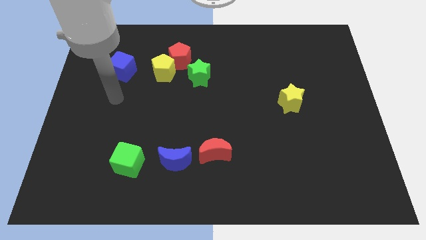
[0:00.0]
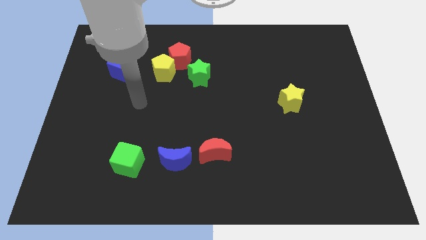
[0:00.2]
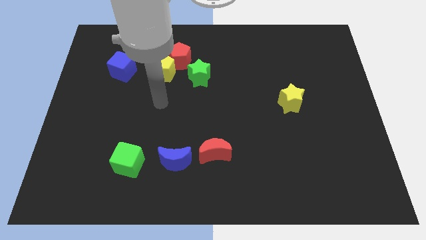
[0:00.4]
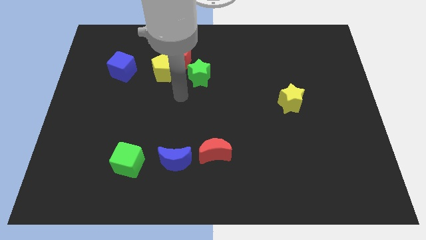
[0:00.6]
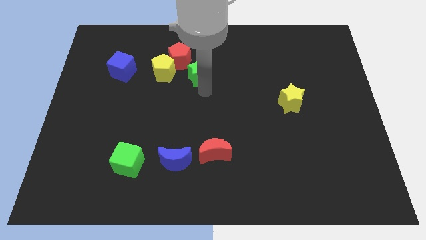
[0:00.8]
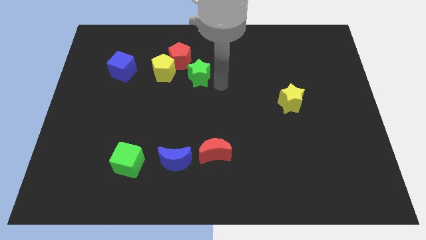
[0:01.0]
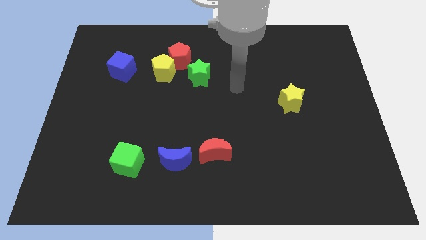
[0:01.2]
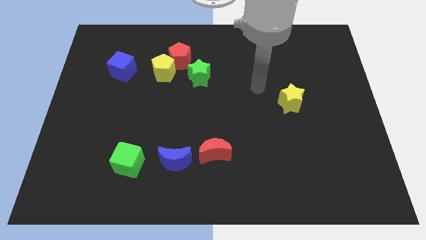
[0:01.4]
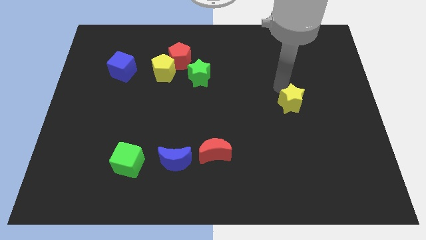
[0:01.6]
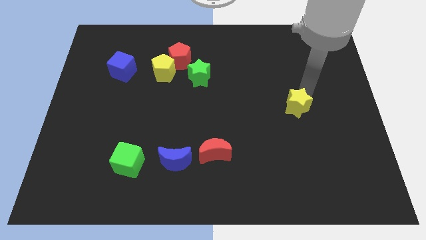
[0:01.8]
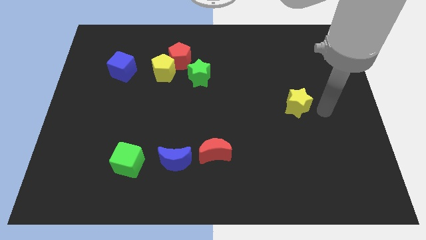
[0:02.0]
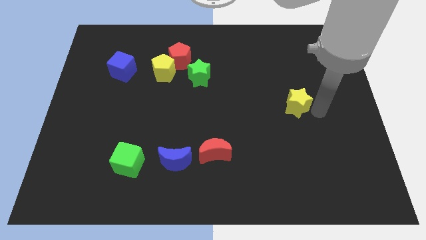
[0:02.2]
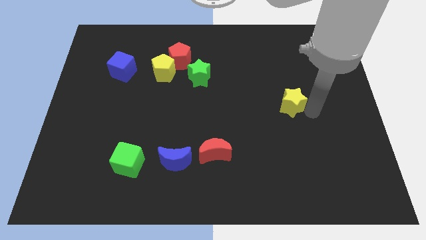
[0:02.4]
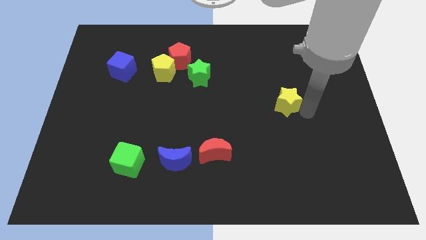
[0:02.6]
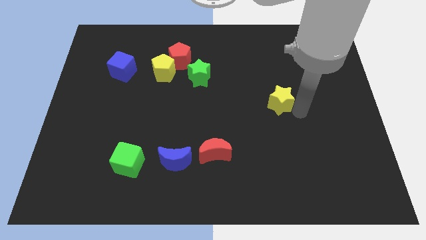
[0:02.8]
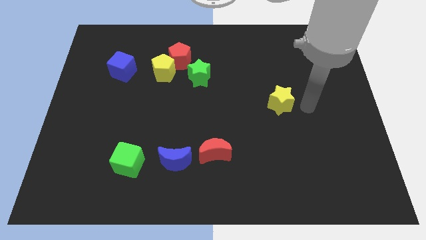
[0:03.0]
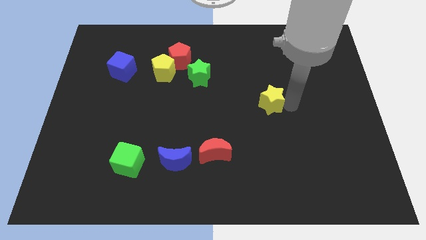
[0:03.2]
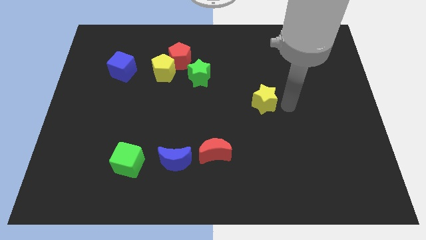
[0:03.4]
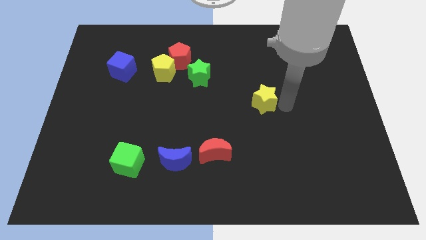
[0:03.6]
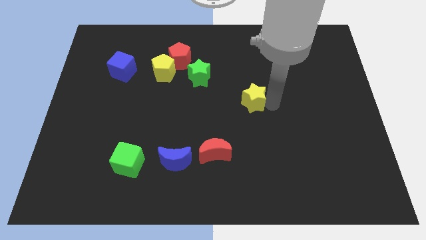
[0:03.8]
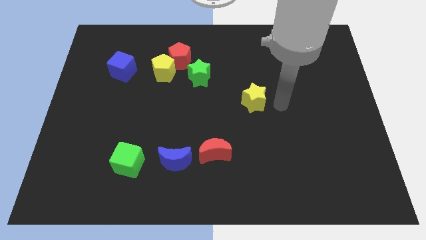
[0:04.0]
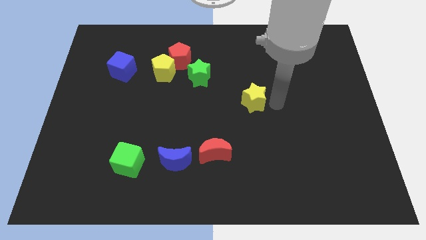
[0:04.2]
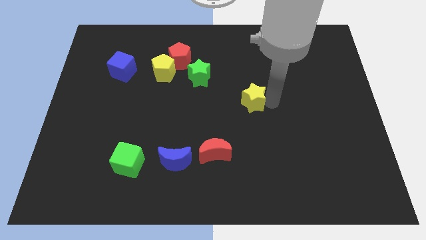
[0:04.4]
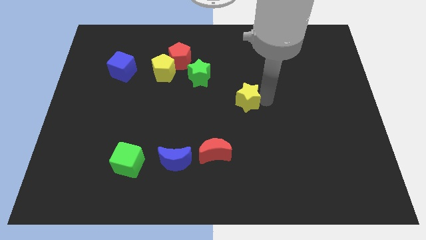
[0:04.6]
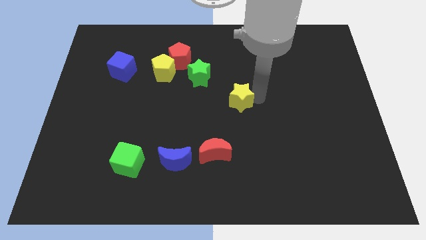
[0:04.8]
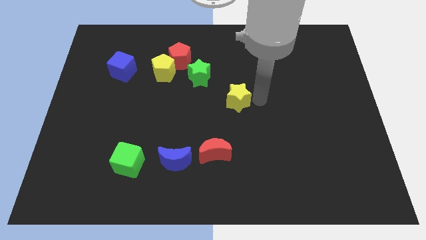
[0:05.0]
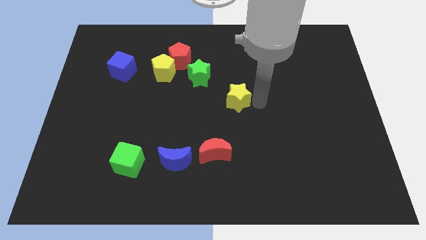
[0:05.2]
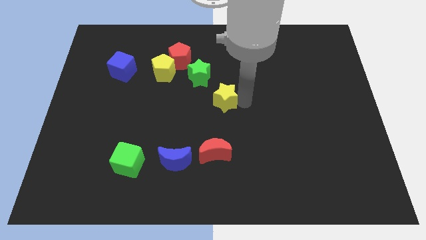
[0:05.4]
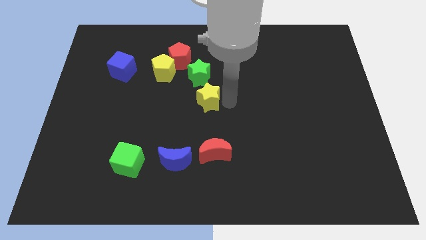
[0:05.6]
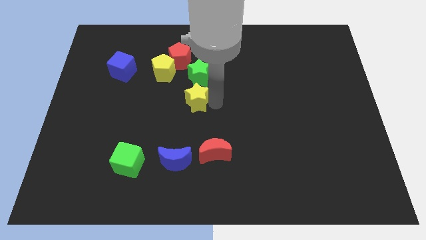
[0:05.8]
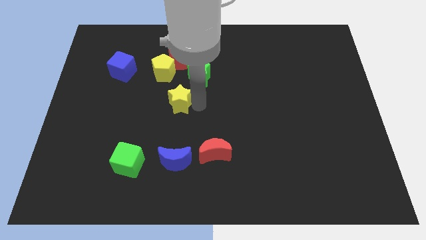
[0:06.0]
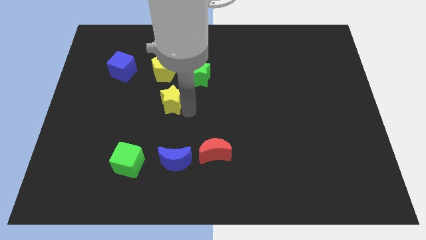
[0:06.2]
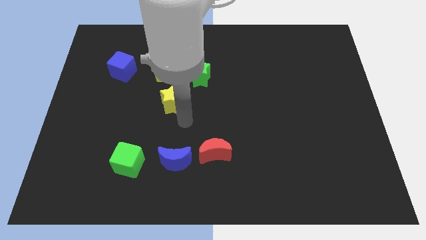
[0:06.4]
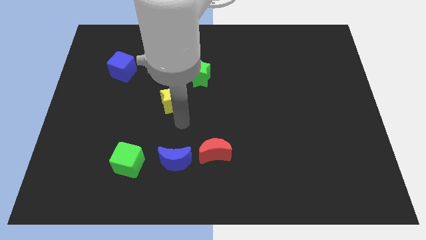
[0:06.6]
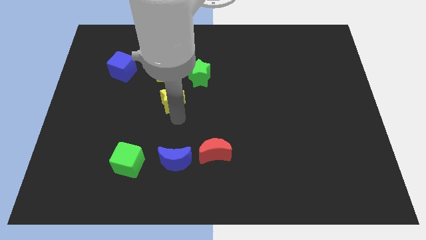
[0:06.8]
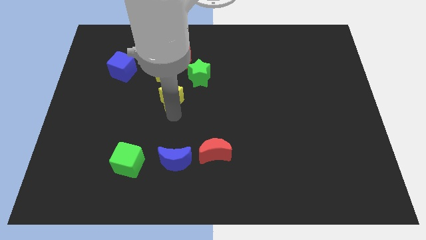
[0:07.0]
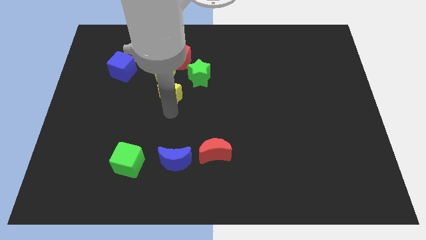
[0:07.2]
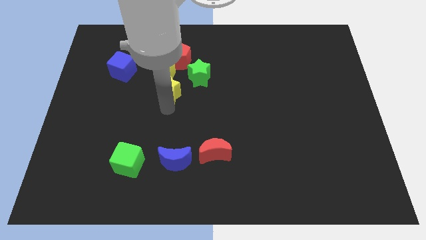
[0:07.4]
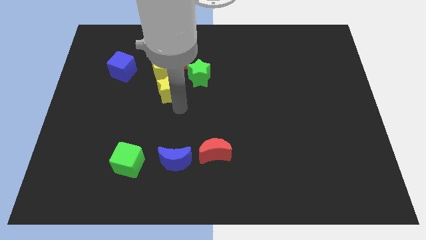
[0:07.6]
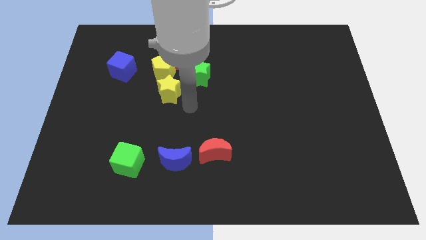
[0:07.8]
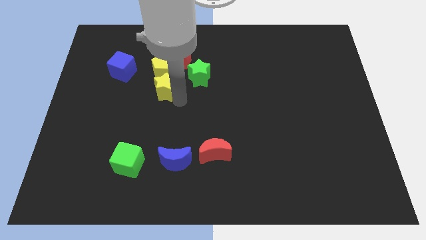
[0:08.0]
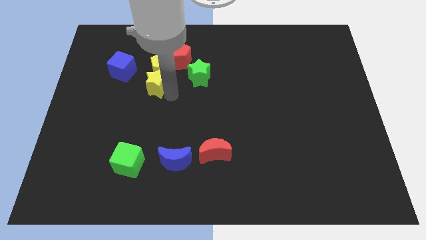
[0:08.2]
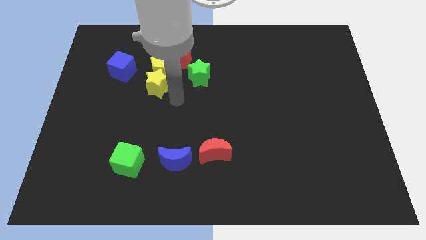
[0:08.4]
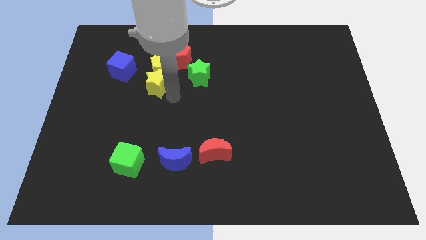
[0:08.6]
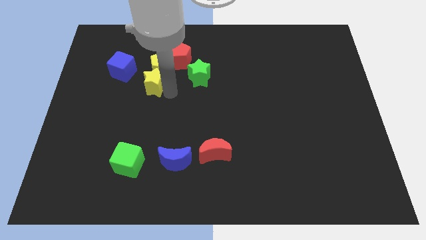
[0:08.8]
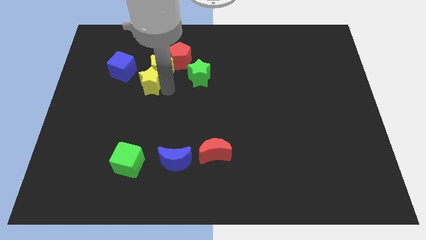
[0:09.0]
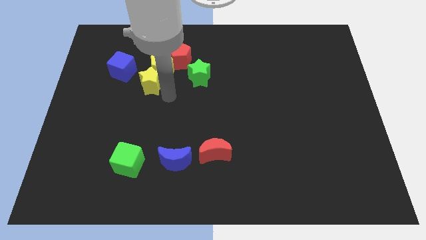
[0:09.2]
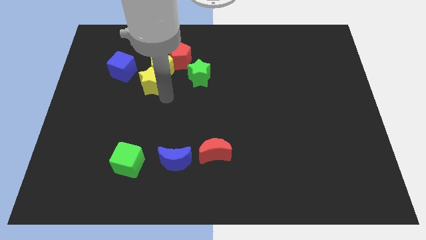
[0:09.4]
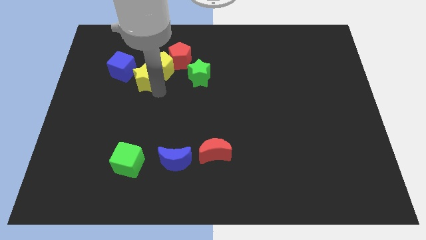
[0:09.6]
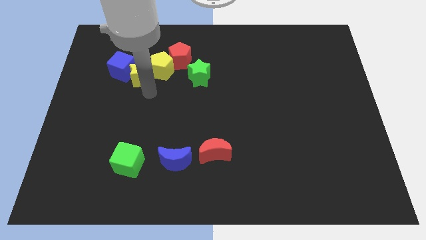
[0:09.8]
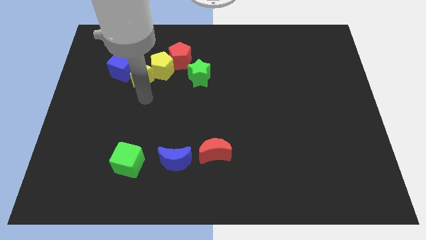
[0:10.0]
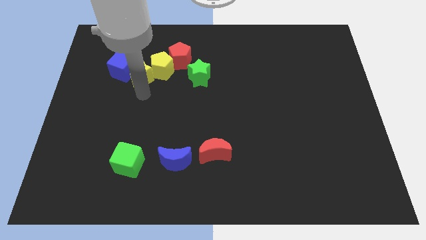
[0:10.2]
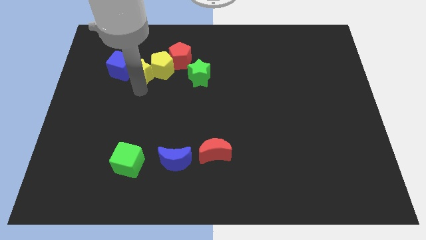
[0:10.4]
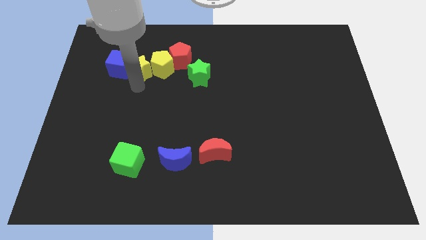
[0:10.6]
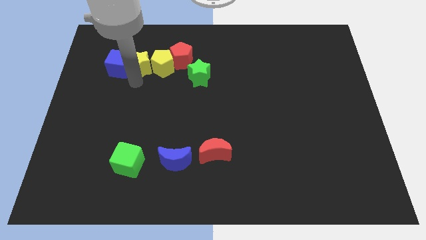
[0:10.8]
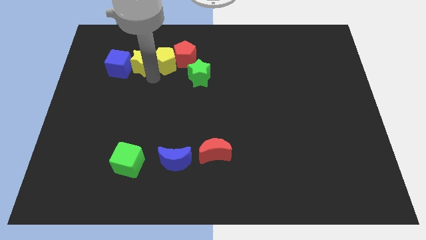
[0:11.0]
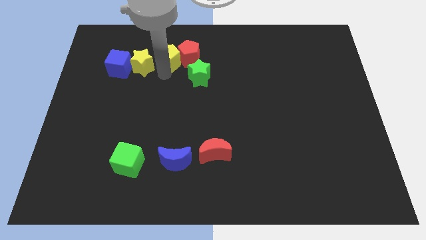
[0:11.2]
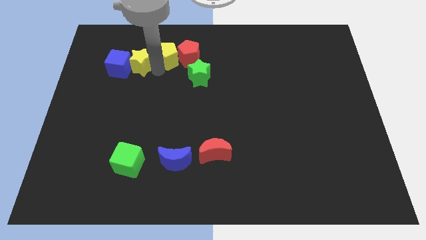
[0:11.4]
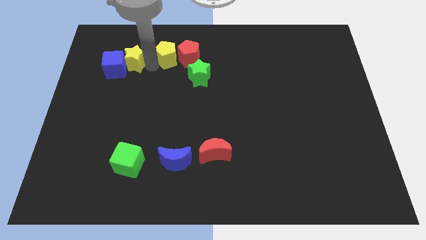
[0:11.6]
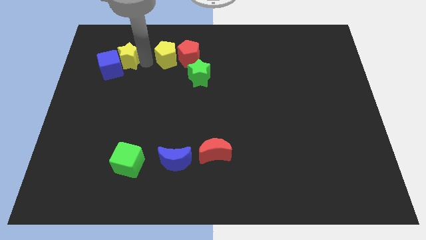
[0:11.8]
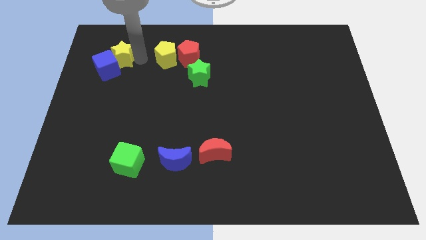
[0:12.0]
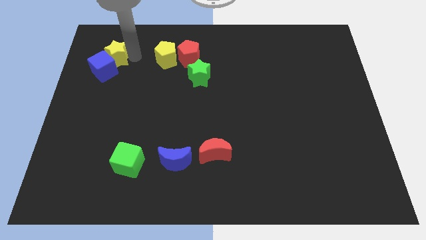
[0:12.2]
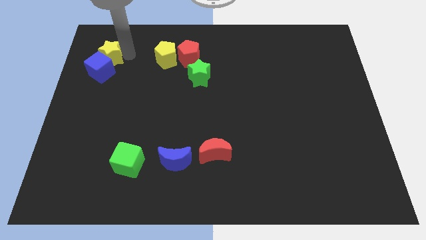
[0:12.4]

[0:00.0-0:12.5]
slide the yellow star diagonally up and to the left of the blue cube

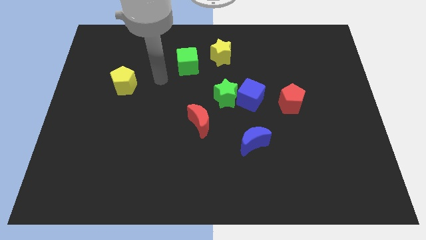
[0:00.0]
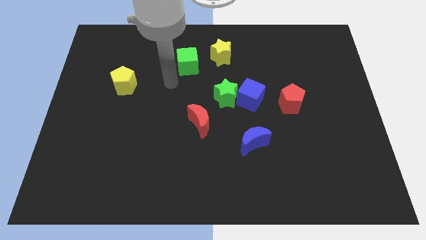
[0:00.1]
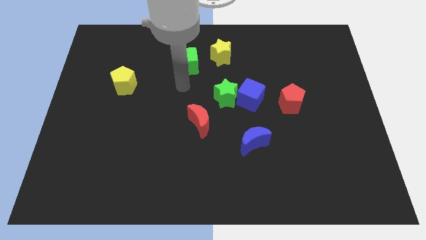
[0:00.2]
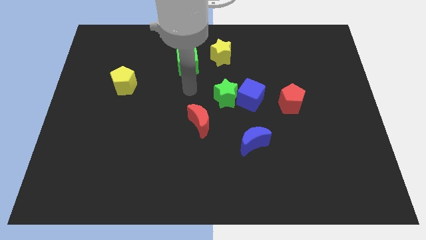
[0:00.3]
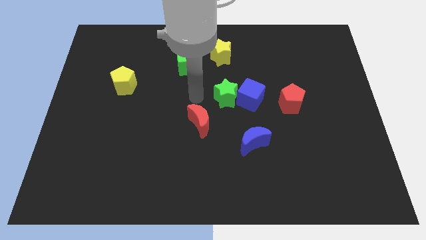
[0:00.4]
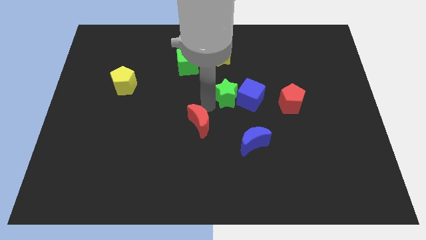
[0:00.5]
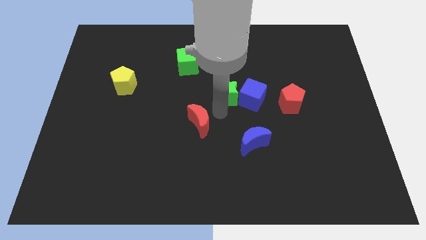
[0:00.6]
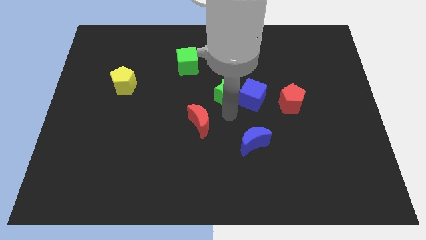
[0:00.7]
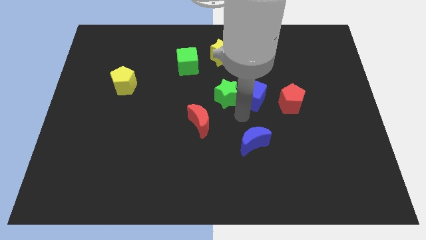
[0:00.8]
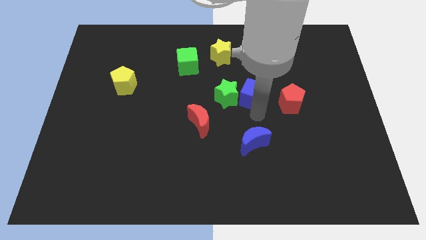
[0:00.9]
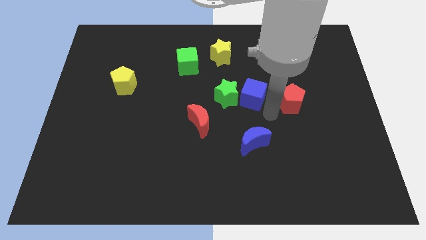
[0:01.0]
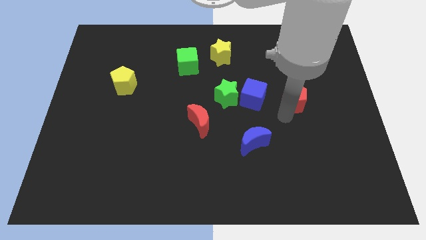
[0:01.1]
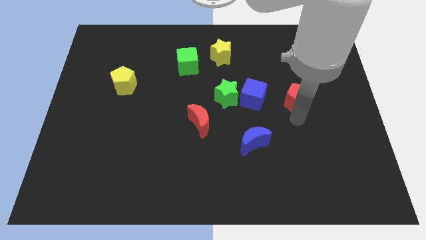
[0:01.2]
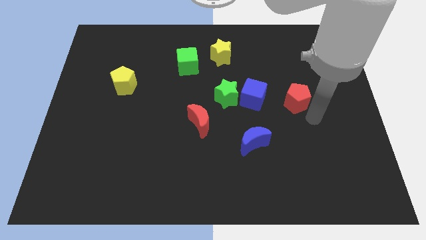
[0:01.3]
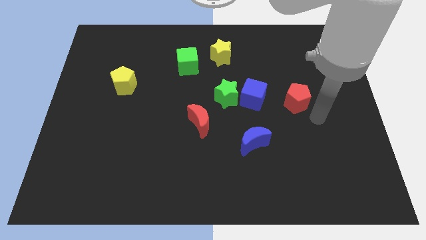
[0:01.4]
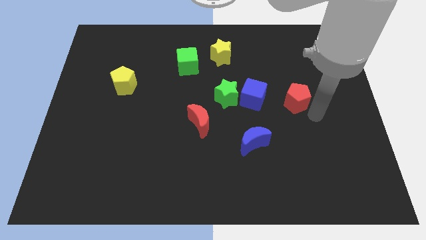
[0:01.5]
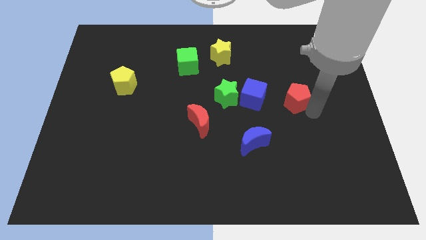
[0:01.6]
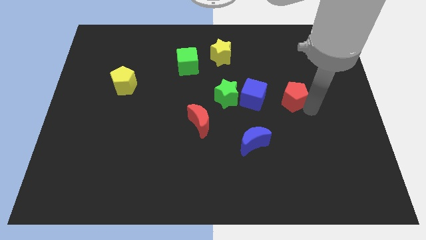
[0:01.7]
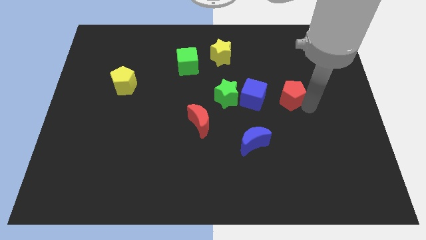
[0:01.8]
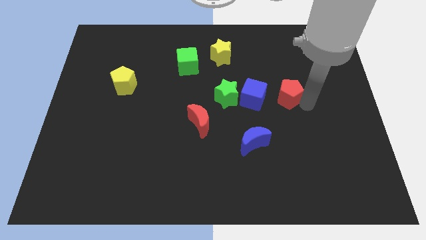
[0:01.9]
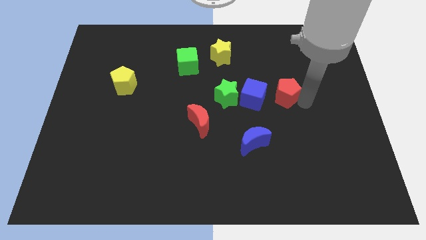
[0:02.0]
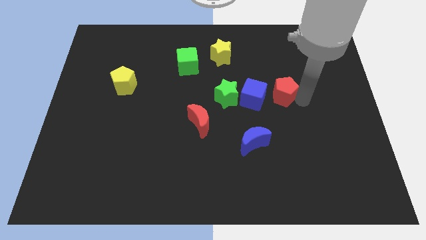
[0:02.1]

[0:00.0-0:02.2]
push the red pentagon to the top right of the blue cube
